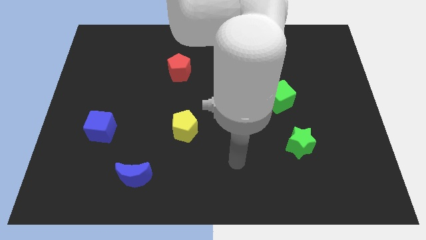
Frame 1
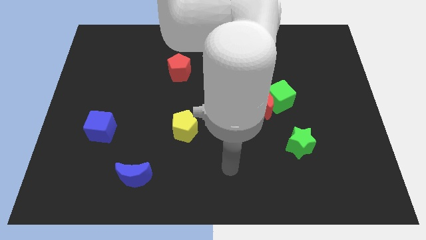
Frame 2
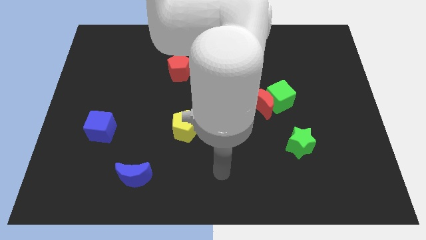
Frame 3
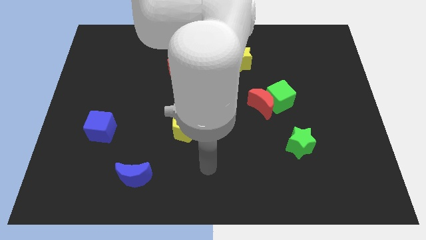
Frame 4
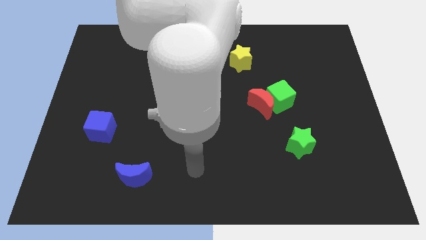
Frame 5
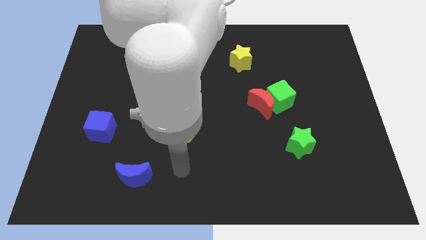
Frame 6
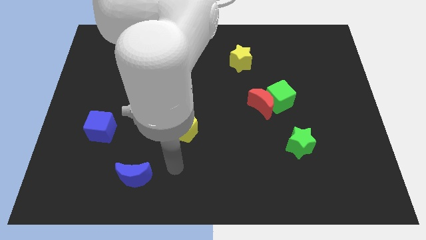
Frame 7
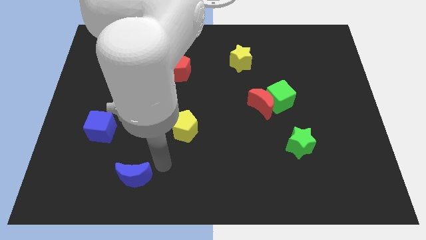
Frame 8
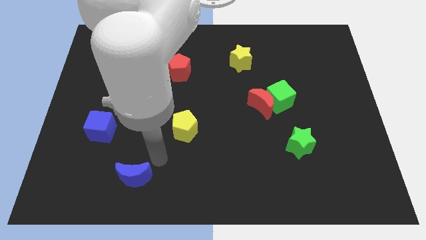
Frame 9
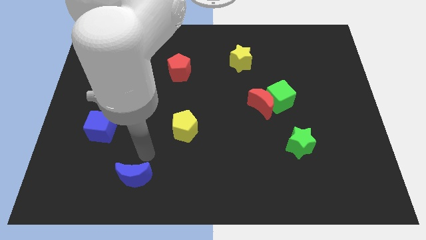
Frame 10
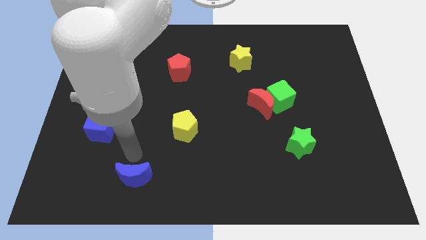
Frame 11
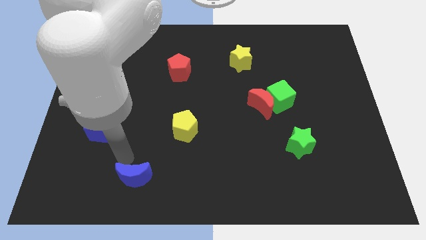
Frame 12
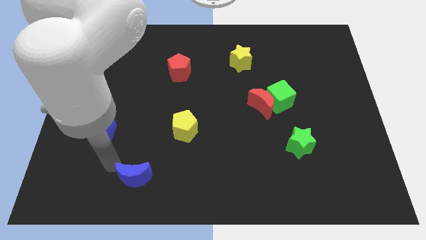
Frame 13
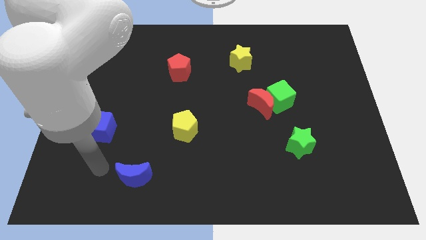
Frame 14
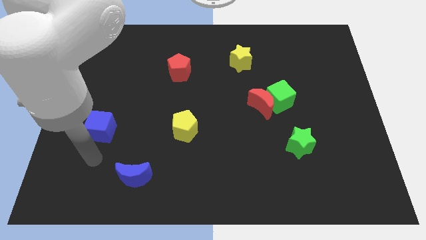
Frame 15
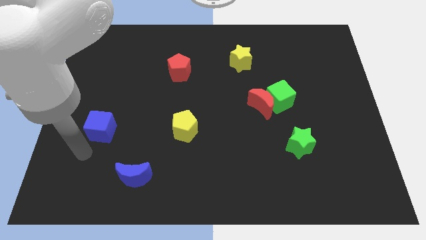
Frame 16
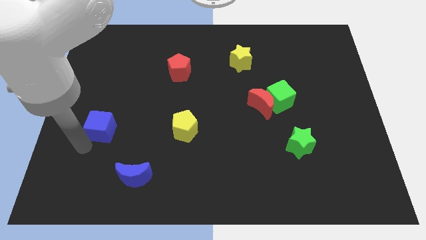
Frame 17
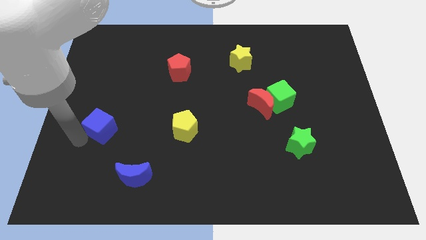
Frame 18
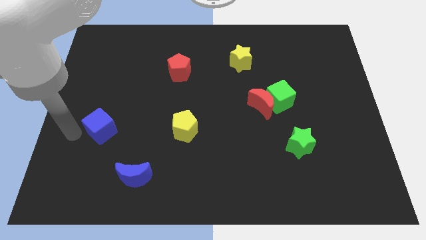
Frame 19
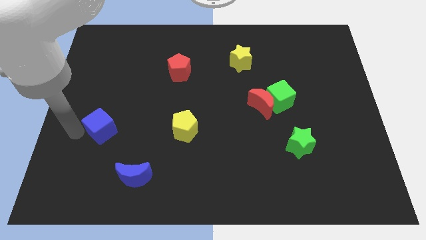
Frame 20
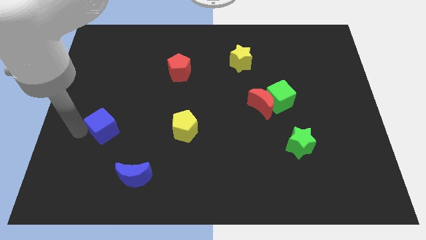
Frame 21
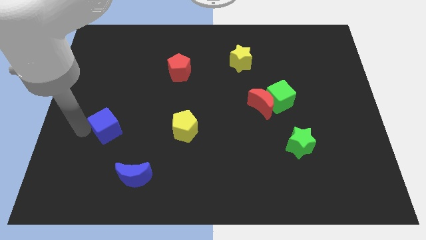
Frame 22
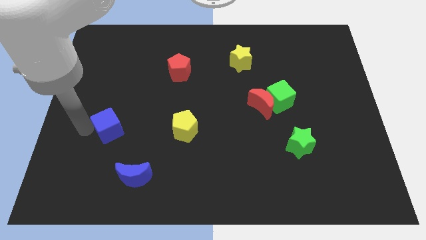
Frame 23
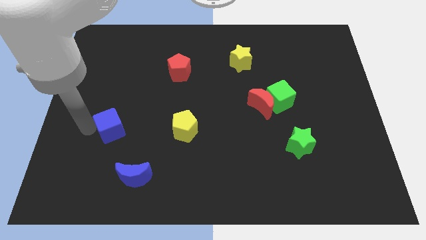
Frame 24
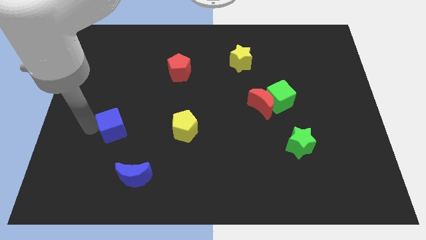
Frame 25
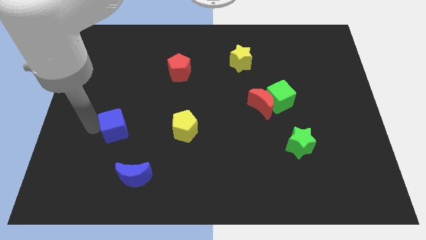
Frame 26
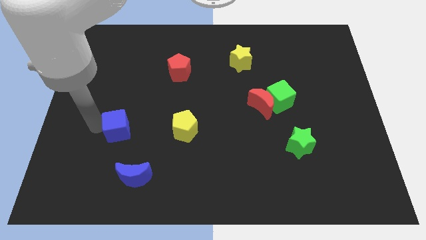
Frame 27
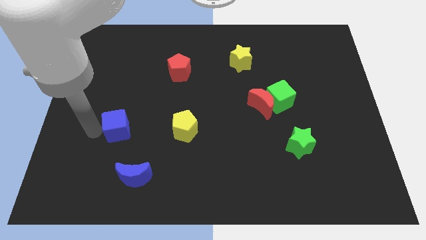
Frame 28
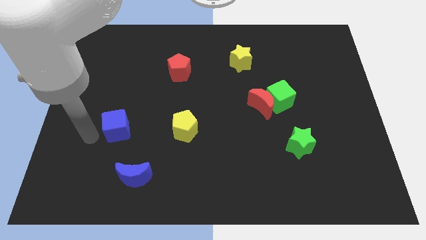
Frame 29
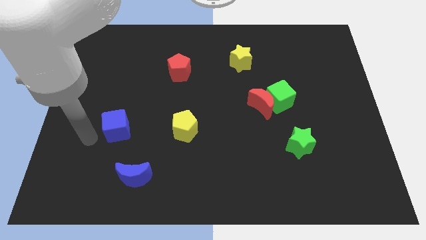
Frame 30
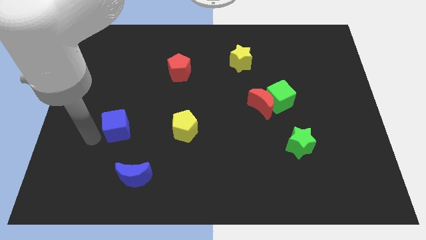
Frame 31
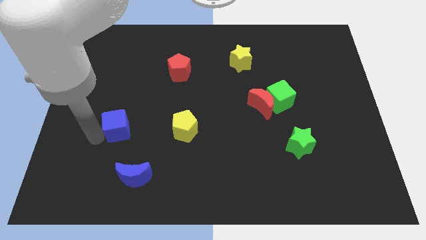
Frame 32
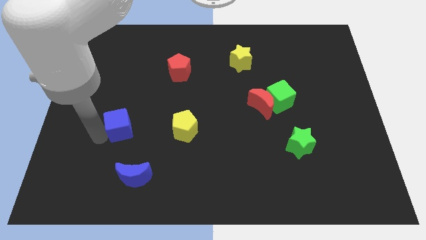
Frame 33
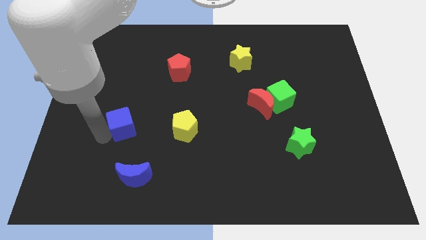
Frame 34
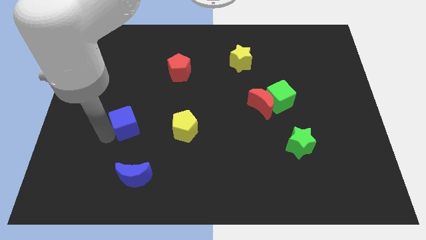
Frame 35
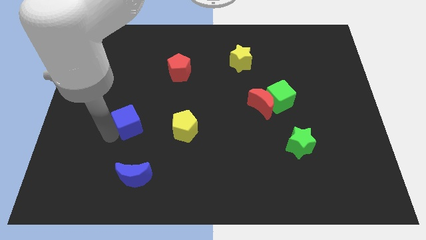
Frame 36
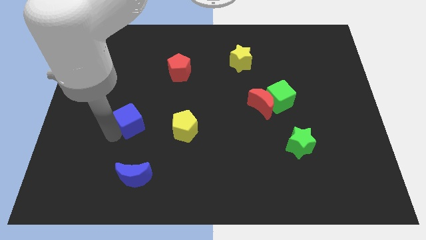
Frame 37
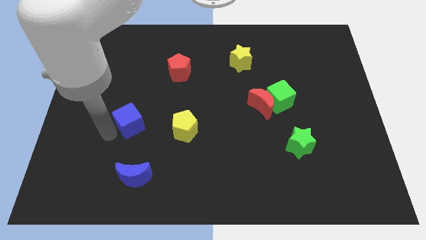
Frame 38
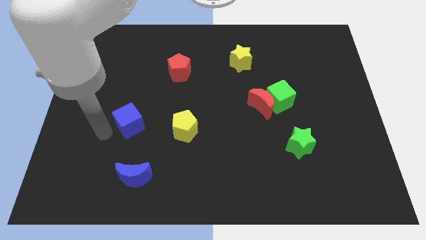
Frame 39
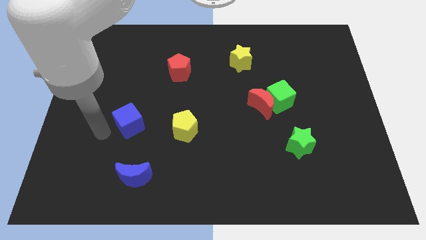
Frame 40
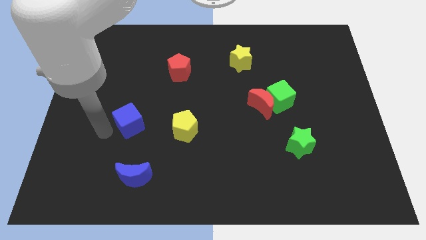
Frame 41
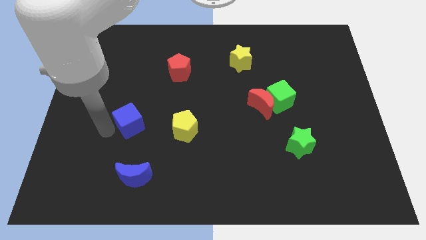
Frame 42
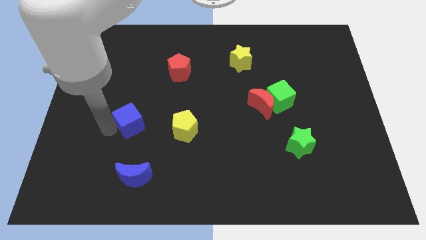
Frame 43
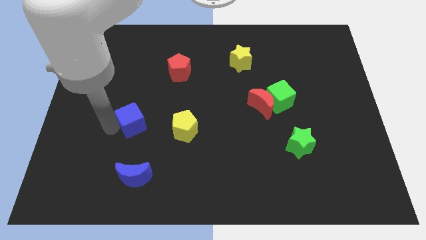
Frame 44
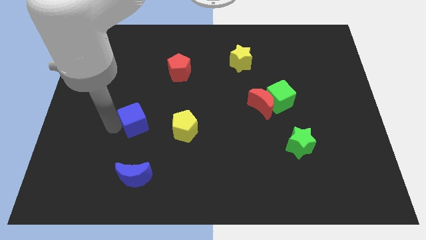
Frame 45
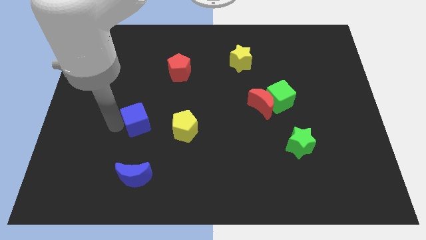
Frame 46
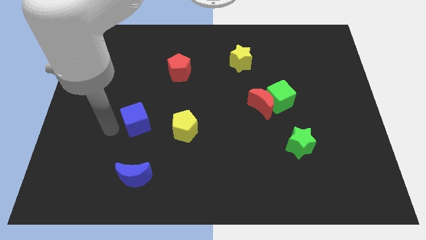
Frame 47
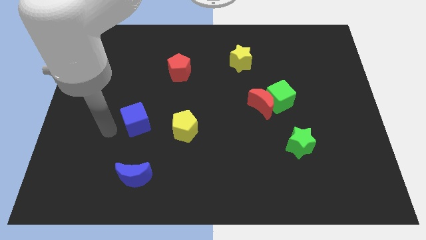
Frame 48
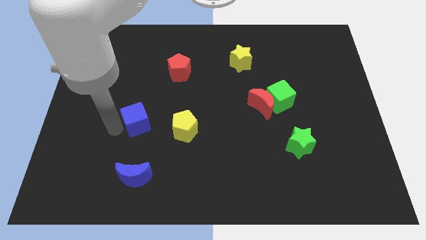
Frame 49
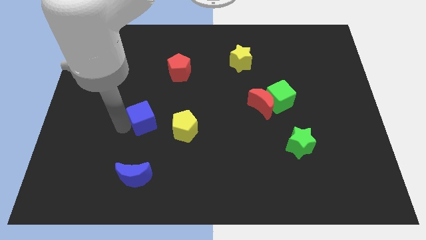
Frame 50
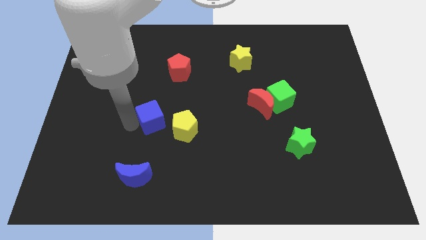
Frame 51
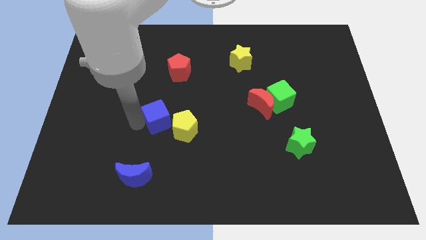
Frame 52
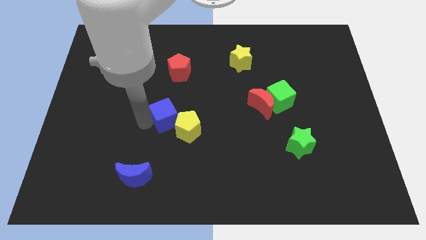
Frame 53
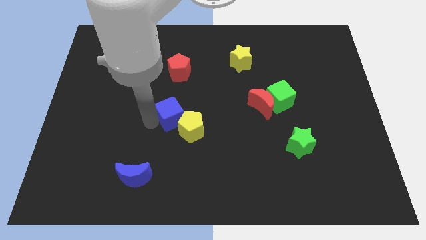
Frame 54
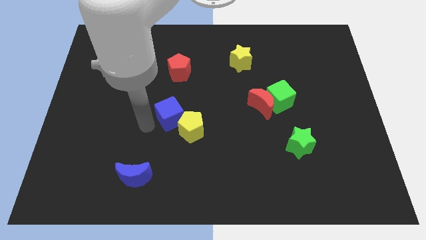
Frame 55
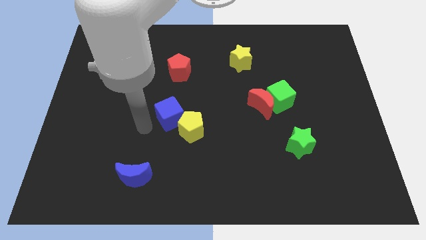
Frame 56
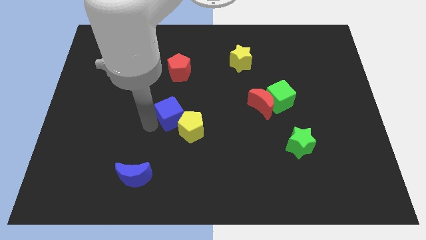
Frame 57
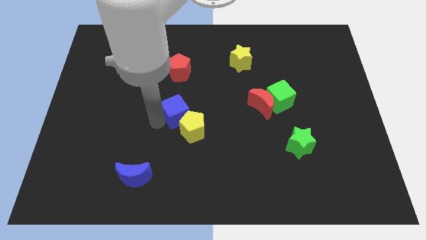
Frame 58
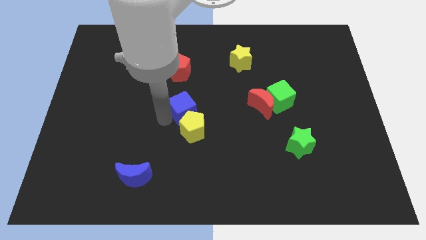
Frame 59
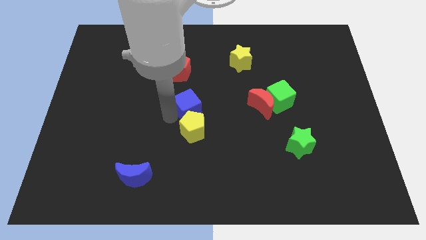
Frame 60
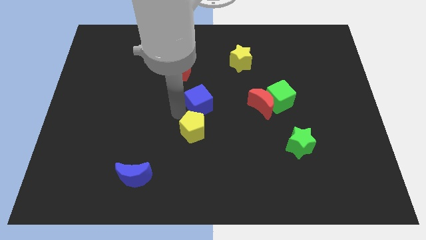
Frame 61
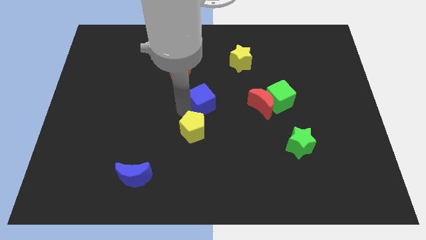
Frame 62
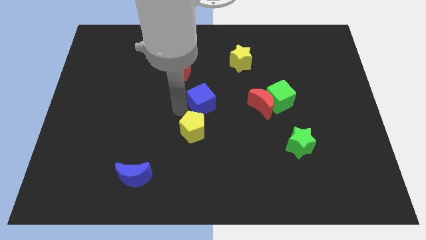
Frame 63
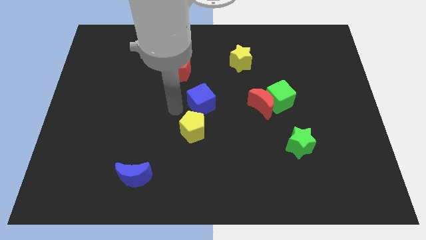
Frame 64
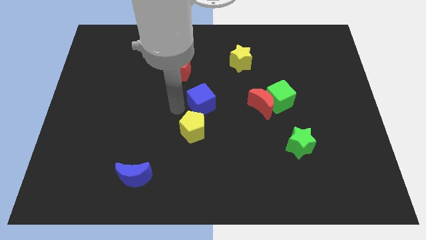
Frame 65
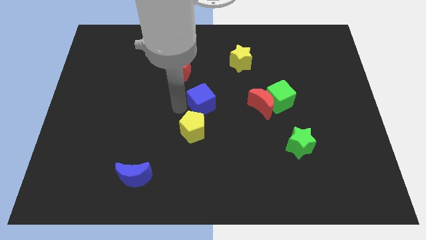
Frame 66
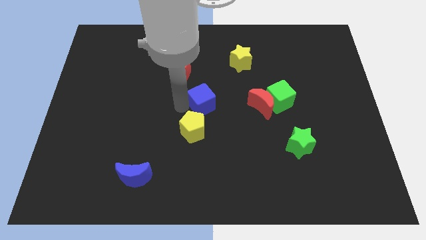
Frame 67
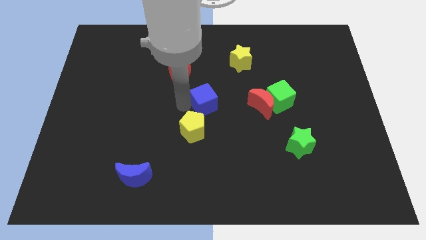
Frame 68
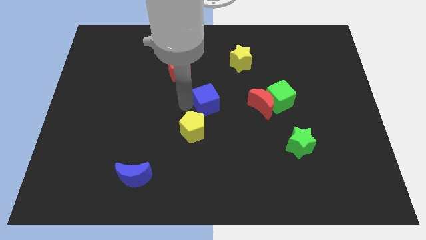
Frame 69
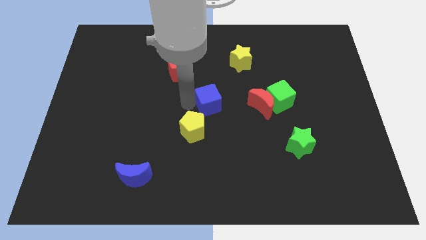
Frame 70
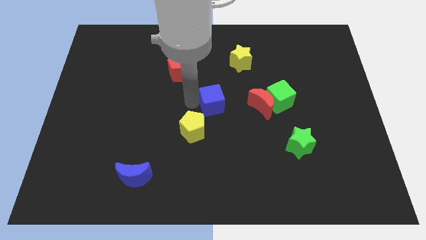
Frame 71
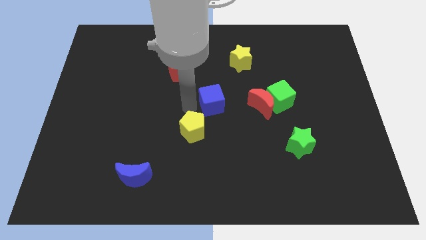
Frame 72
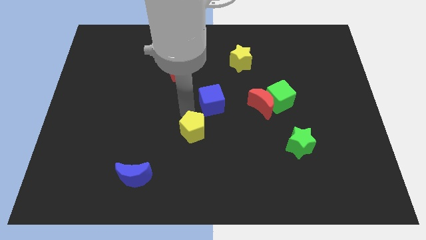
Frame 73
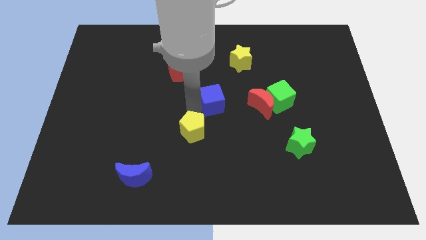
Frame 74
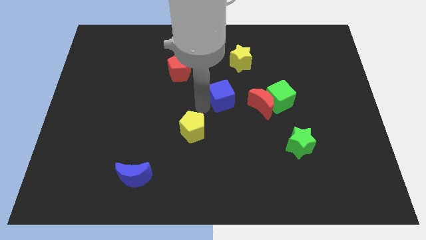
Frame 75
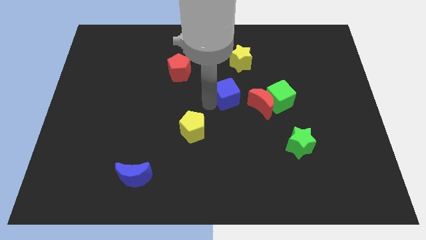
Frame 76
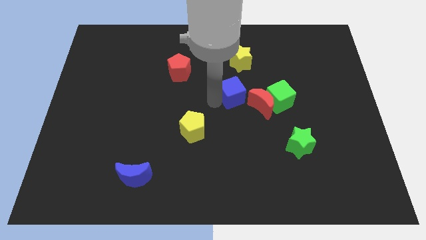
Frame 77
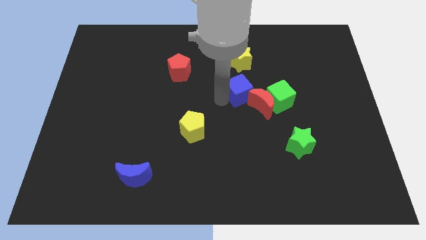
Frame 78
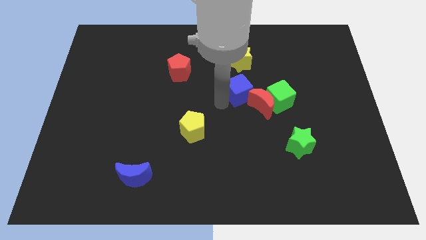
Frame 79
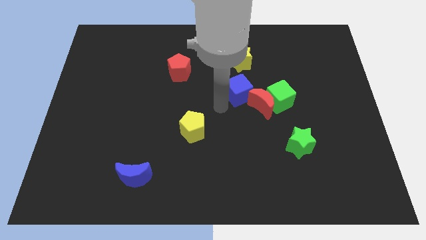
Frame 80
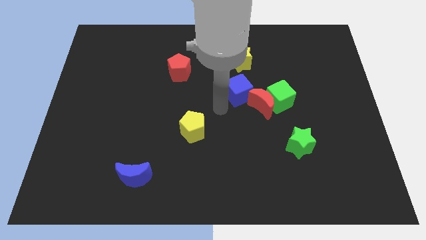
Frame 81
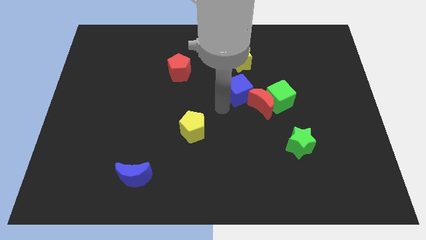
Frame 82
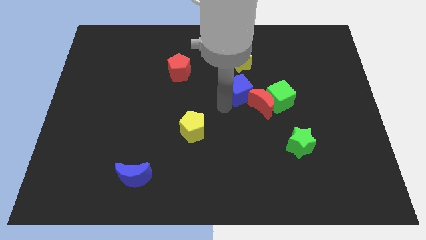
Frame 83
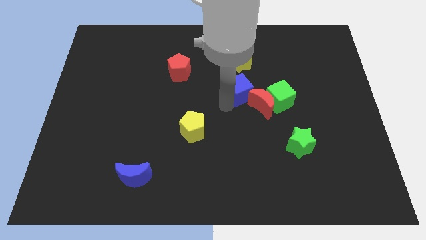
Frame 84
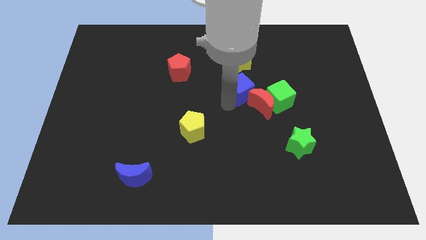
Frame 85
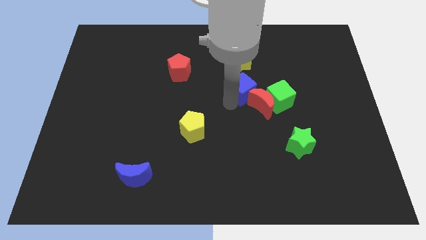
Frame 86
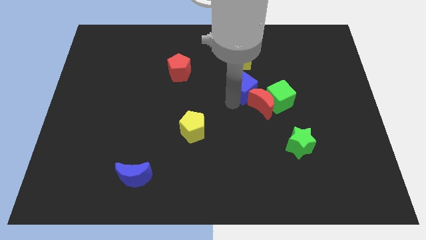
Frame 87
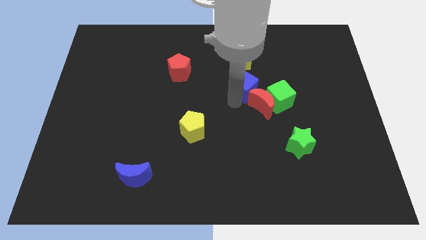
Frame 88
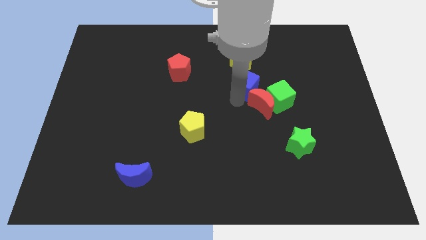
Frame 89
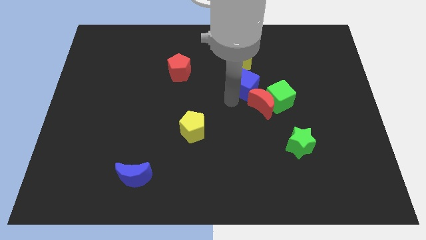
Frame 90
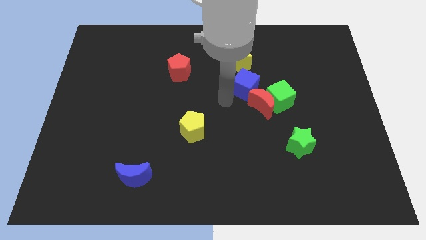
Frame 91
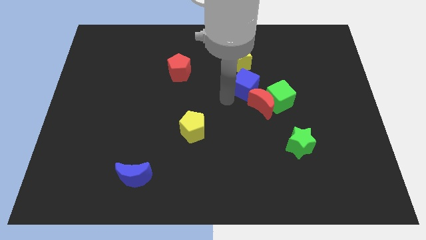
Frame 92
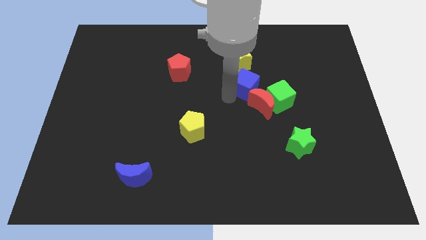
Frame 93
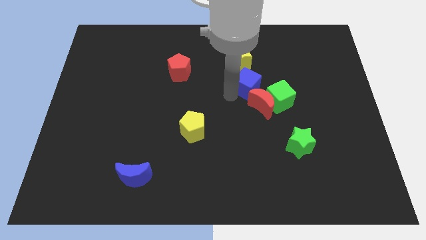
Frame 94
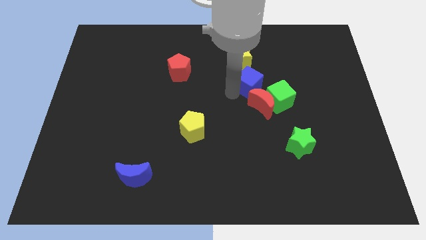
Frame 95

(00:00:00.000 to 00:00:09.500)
put the blue cube diagonally down and to the right of the yellow star
